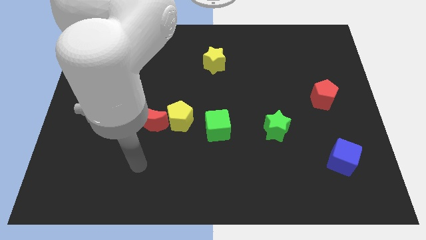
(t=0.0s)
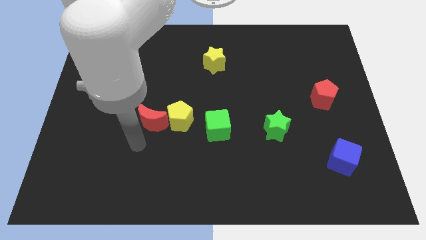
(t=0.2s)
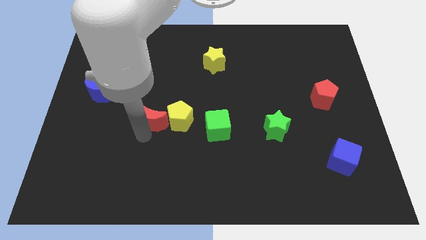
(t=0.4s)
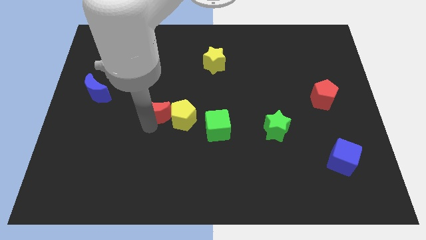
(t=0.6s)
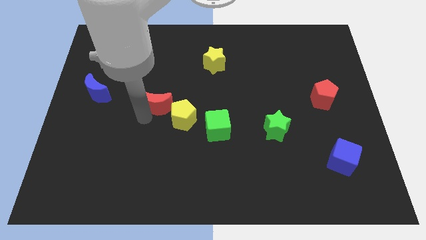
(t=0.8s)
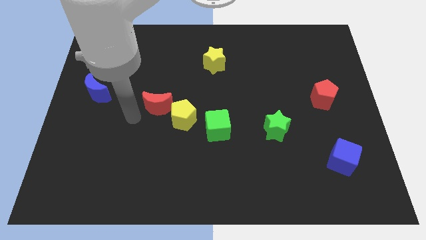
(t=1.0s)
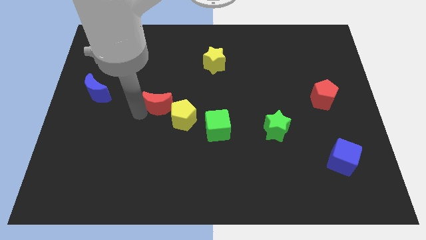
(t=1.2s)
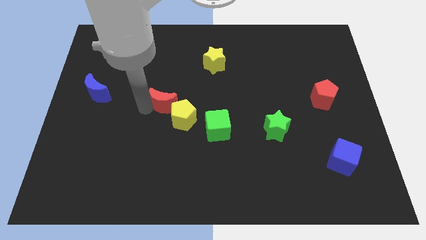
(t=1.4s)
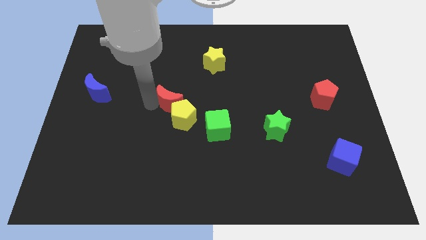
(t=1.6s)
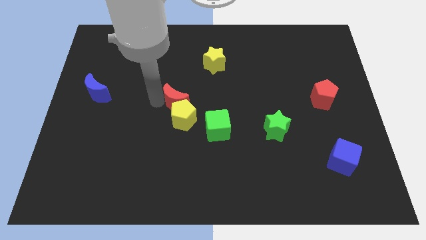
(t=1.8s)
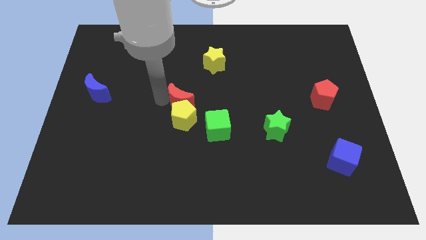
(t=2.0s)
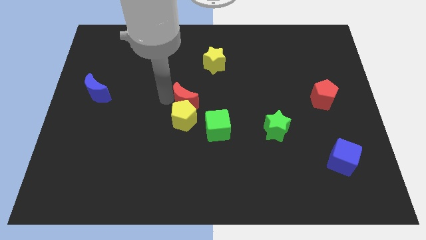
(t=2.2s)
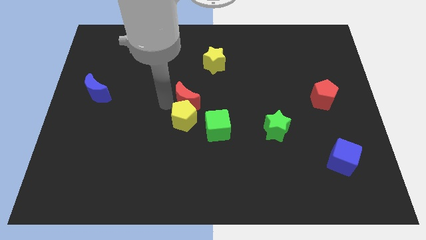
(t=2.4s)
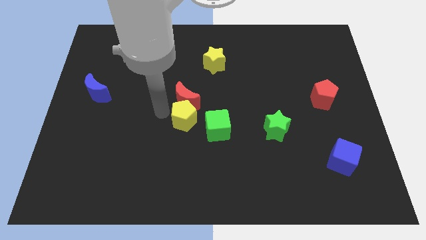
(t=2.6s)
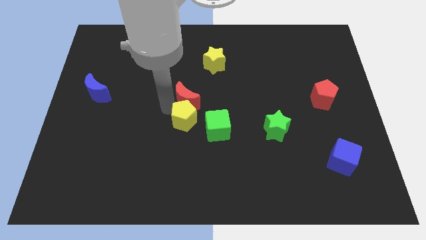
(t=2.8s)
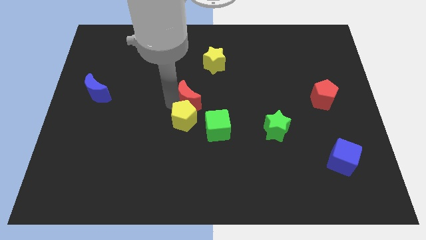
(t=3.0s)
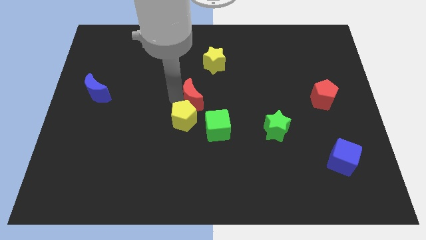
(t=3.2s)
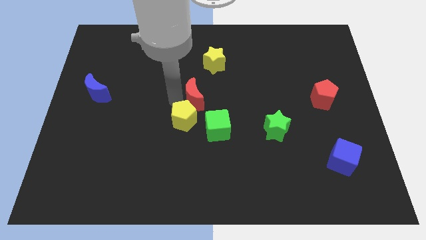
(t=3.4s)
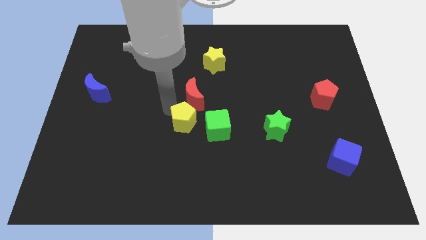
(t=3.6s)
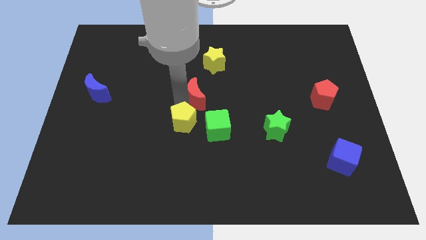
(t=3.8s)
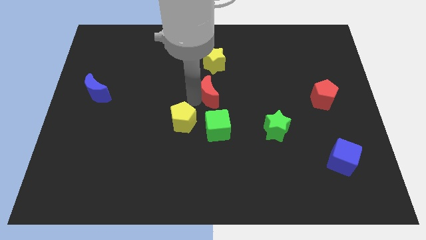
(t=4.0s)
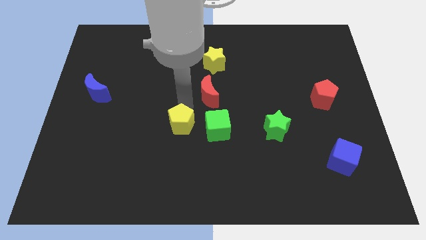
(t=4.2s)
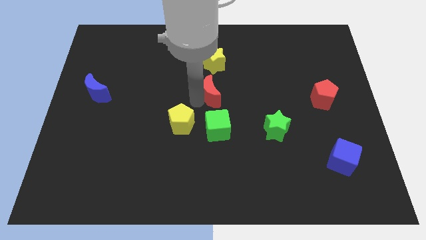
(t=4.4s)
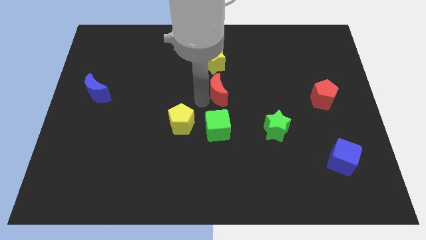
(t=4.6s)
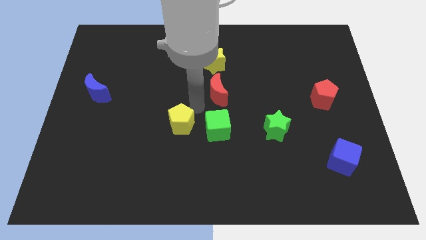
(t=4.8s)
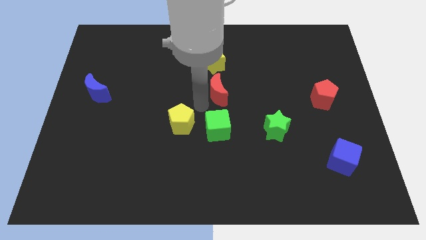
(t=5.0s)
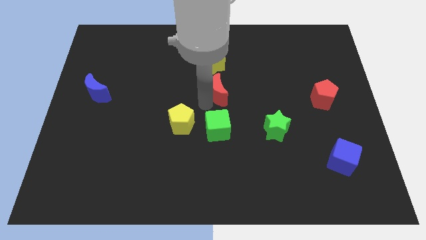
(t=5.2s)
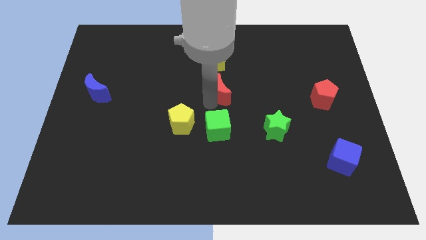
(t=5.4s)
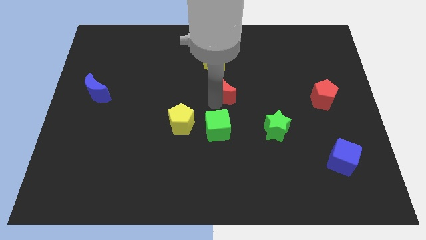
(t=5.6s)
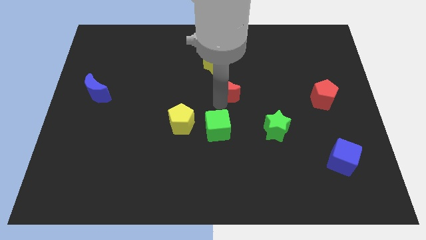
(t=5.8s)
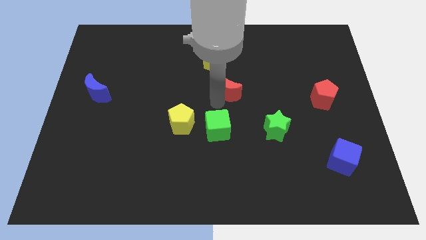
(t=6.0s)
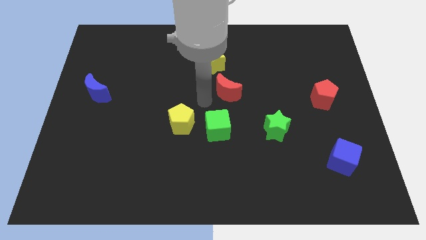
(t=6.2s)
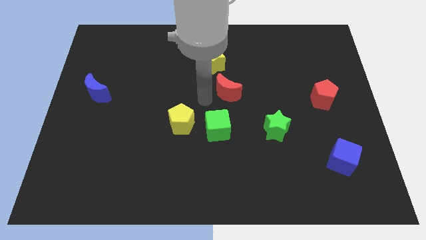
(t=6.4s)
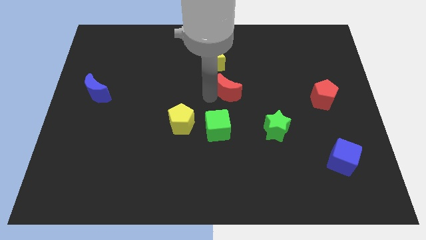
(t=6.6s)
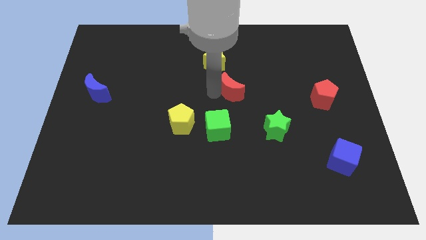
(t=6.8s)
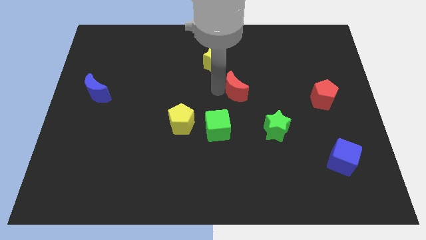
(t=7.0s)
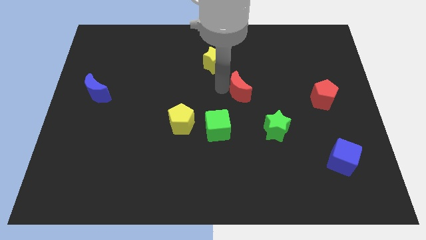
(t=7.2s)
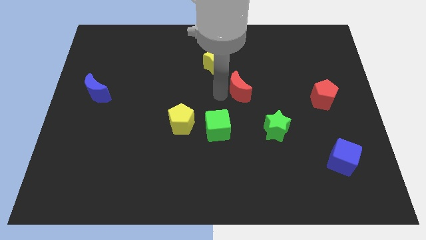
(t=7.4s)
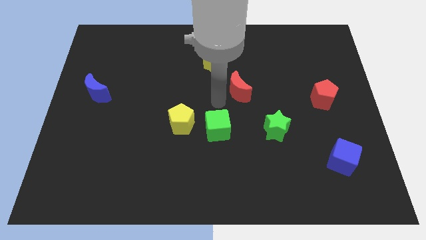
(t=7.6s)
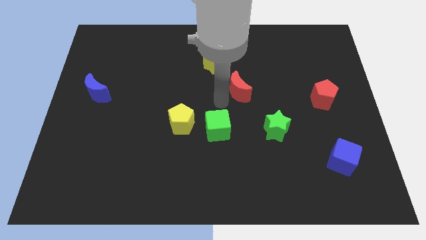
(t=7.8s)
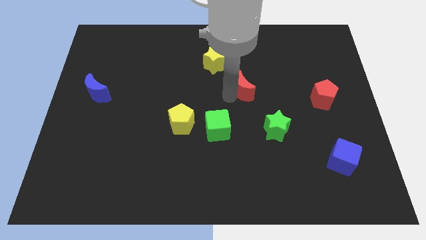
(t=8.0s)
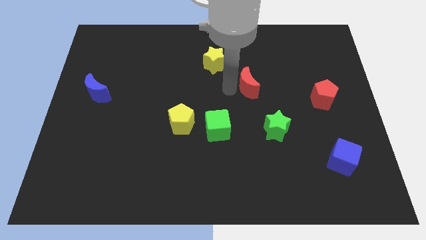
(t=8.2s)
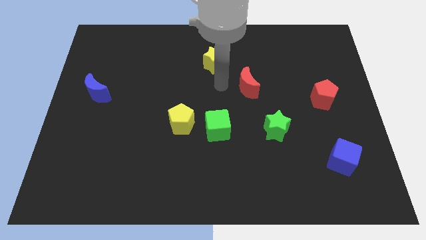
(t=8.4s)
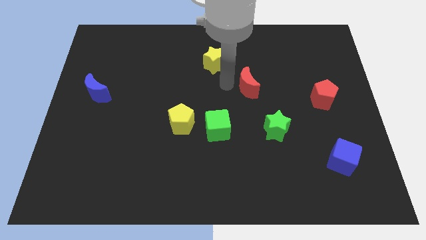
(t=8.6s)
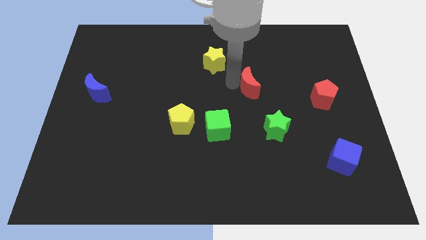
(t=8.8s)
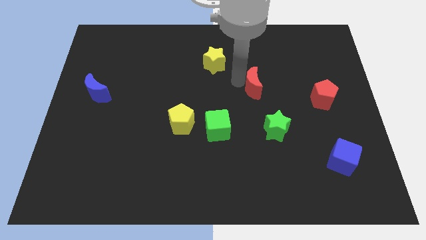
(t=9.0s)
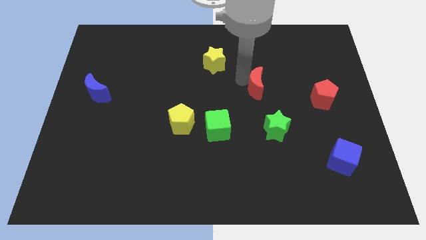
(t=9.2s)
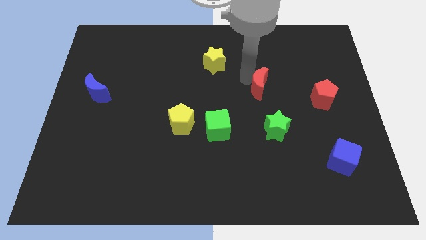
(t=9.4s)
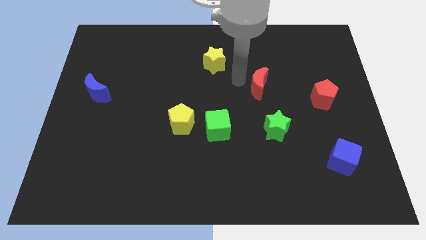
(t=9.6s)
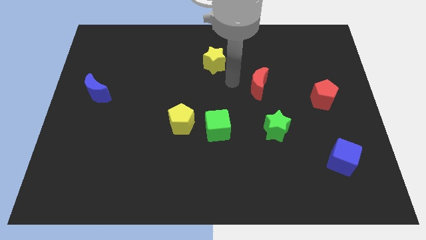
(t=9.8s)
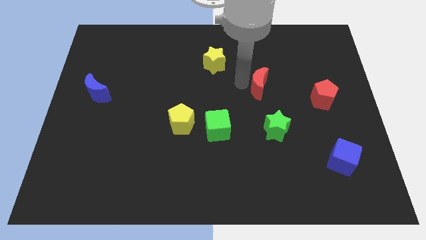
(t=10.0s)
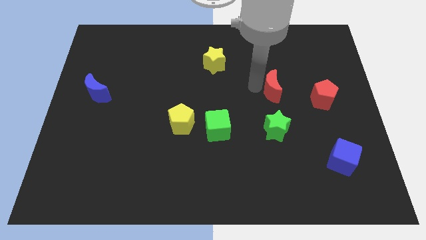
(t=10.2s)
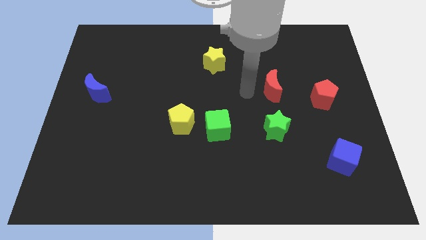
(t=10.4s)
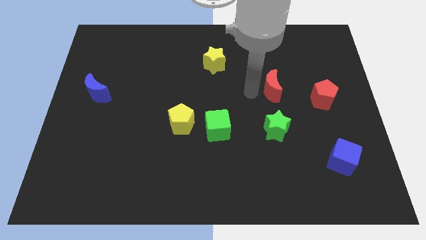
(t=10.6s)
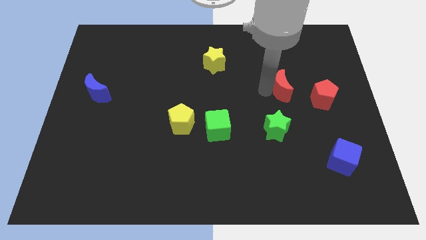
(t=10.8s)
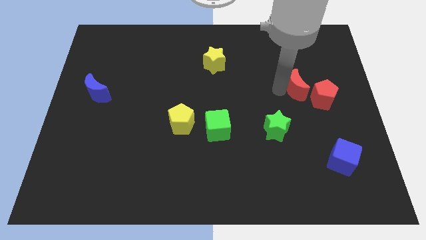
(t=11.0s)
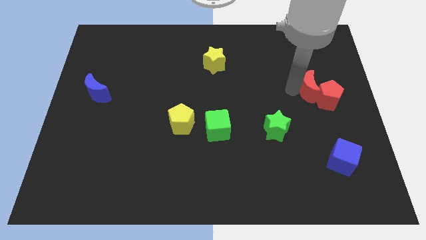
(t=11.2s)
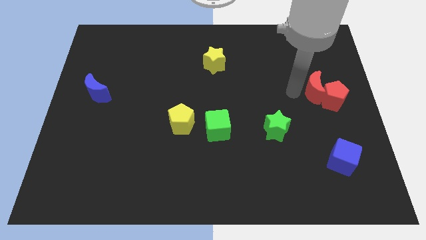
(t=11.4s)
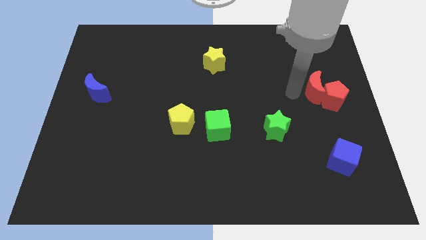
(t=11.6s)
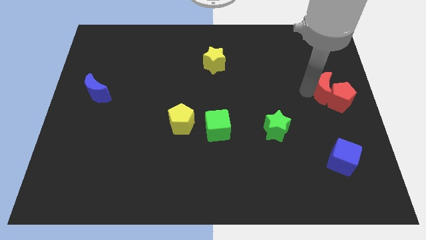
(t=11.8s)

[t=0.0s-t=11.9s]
slide the red moon to the right side
